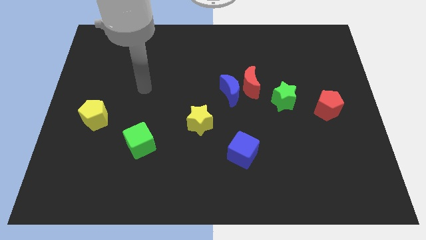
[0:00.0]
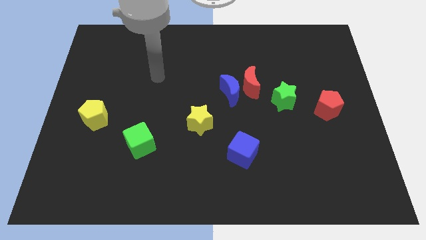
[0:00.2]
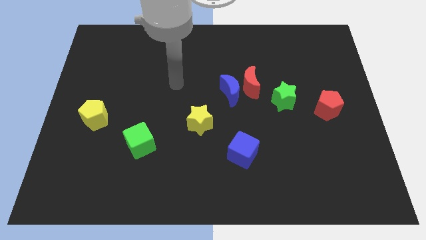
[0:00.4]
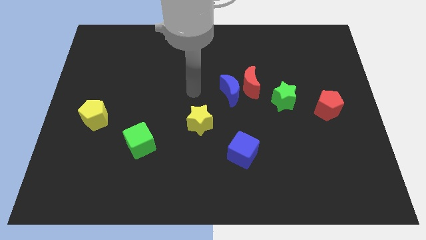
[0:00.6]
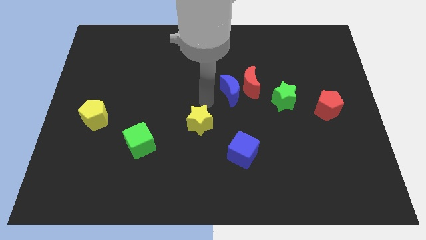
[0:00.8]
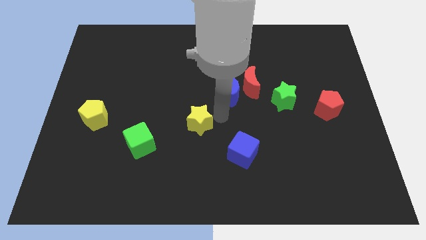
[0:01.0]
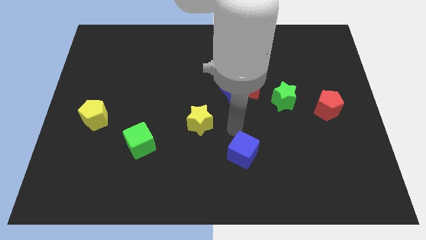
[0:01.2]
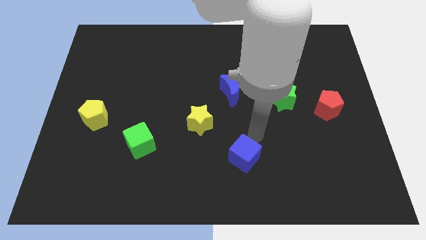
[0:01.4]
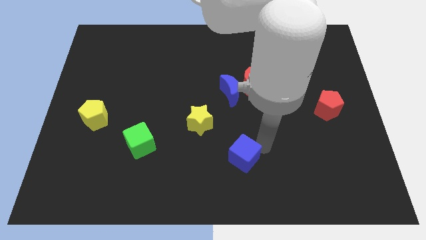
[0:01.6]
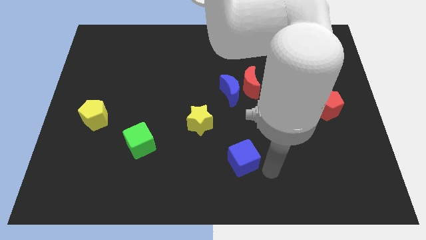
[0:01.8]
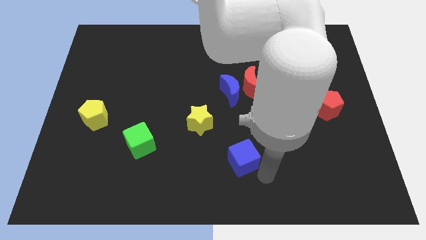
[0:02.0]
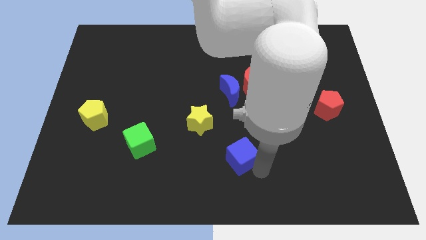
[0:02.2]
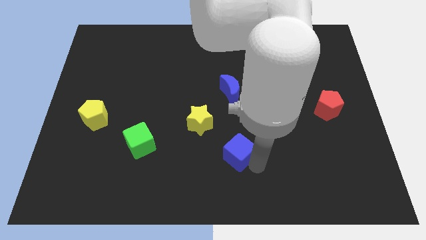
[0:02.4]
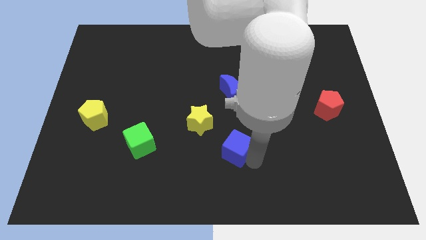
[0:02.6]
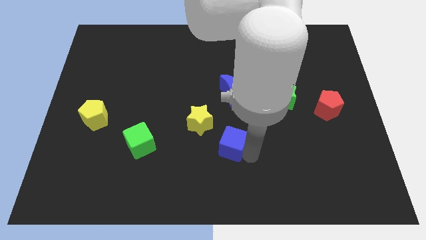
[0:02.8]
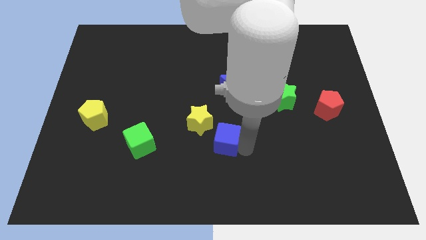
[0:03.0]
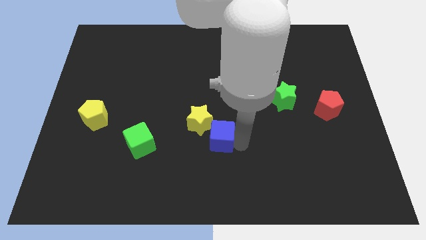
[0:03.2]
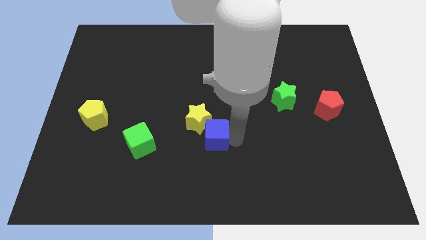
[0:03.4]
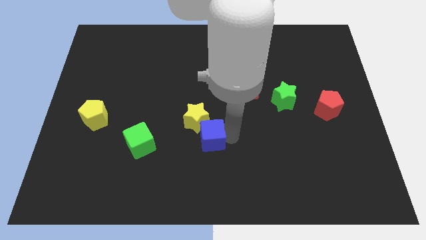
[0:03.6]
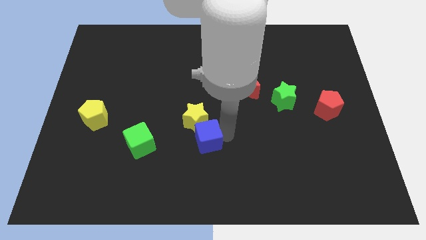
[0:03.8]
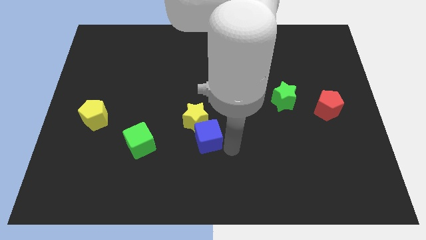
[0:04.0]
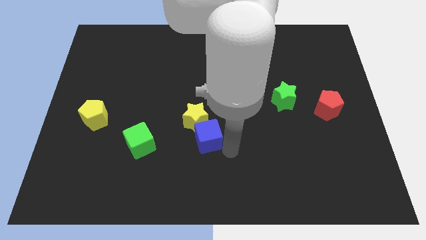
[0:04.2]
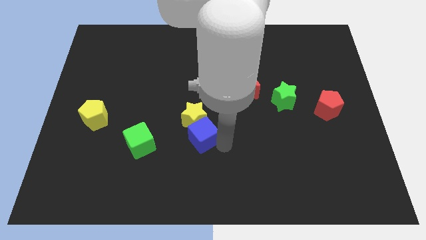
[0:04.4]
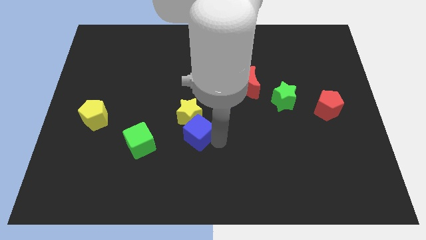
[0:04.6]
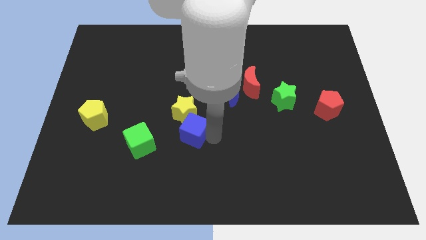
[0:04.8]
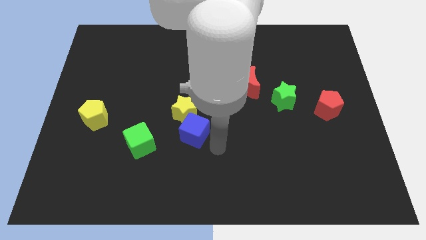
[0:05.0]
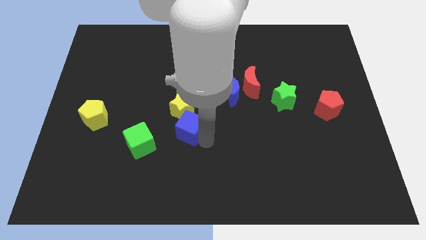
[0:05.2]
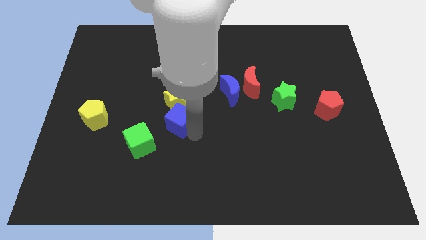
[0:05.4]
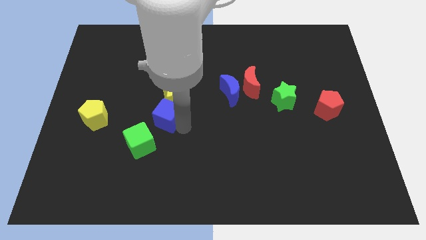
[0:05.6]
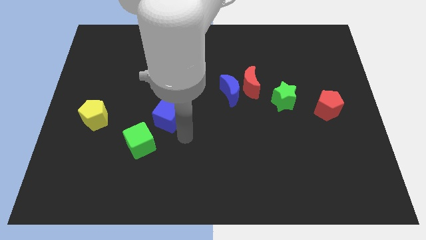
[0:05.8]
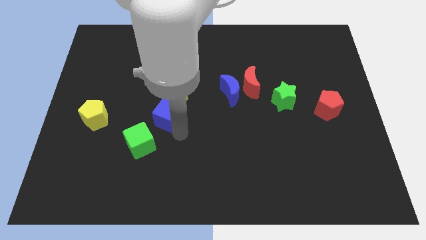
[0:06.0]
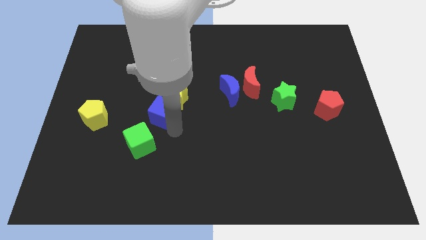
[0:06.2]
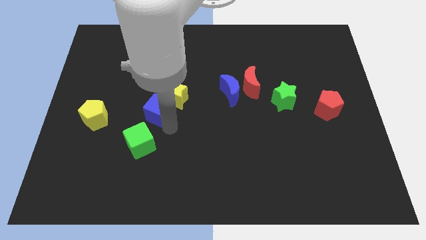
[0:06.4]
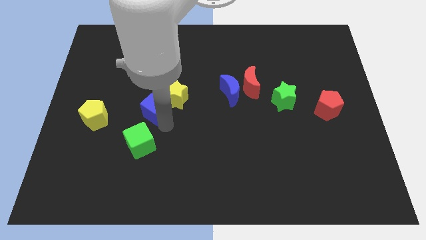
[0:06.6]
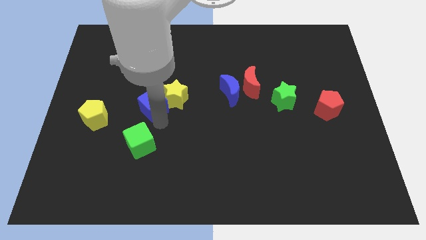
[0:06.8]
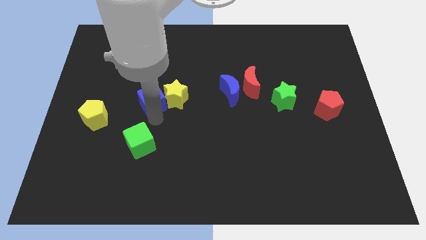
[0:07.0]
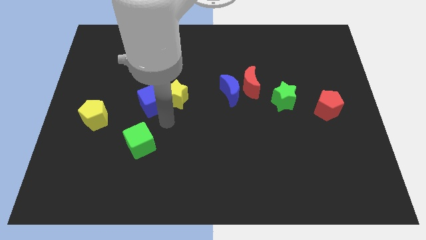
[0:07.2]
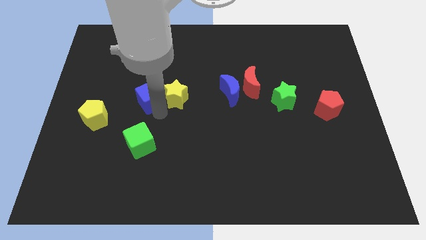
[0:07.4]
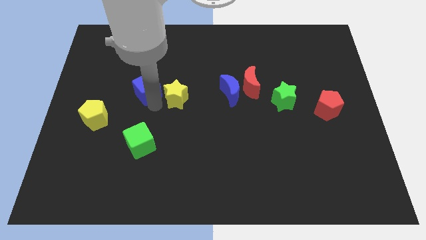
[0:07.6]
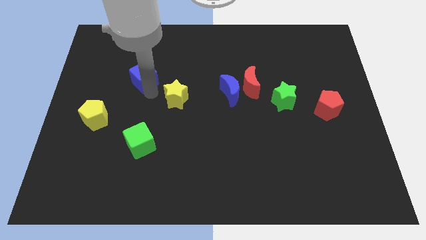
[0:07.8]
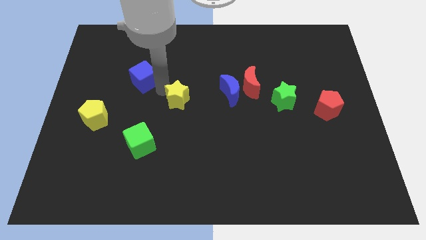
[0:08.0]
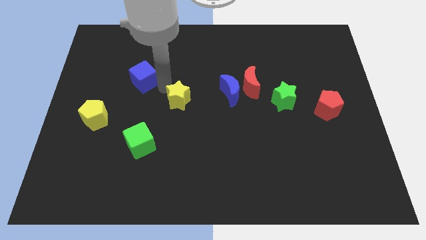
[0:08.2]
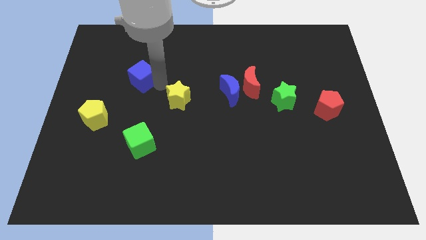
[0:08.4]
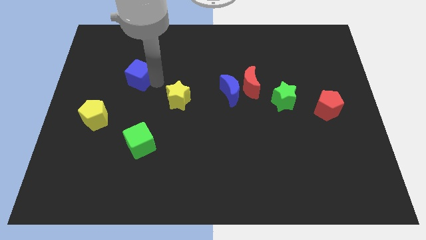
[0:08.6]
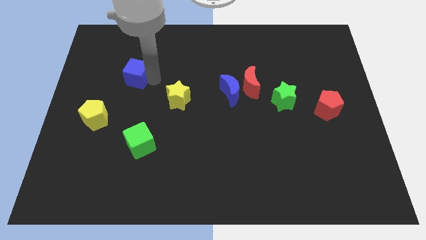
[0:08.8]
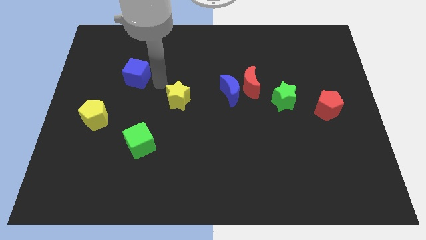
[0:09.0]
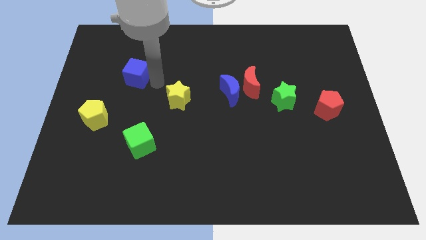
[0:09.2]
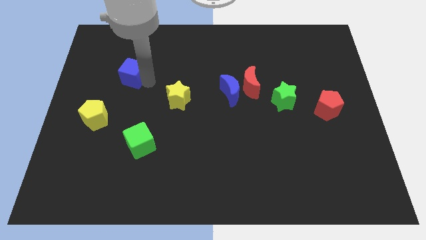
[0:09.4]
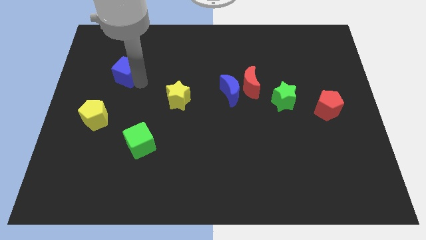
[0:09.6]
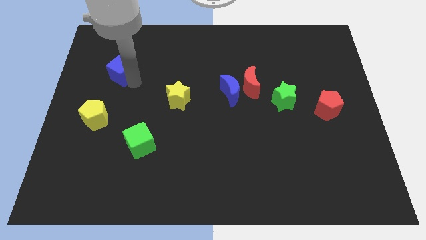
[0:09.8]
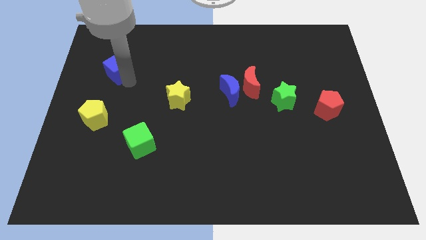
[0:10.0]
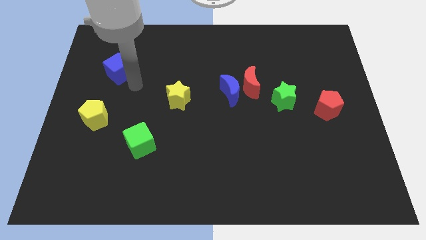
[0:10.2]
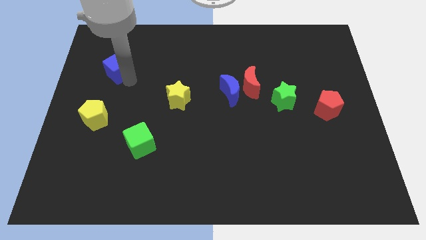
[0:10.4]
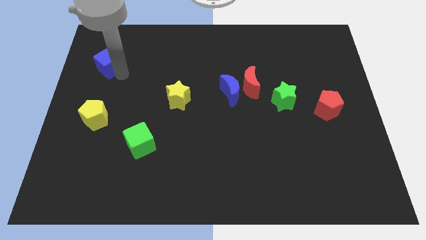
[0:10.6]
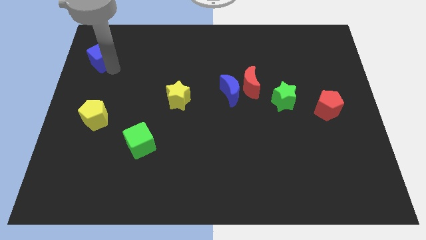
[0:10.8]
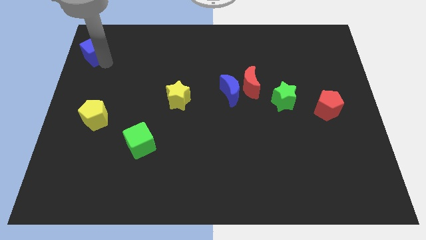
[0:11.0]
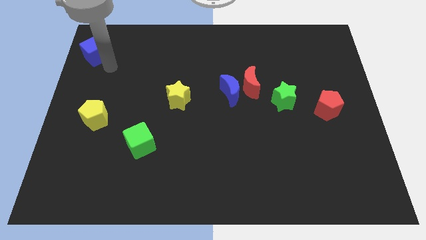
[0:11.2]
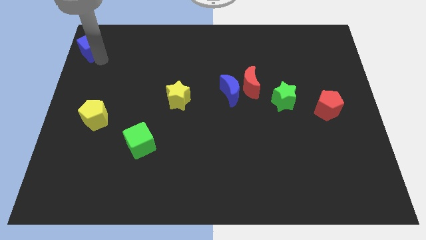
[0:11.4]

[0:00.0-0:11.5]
push the blue cube to the top left of the board
